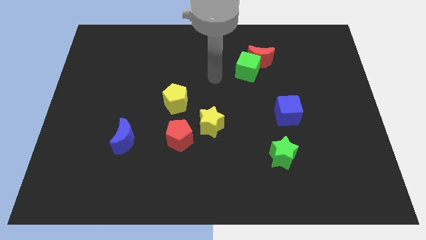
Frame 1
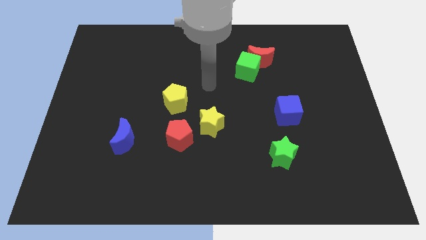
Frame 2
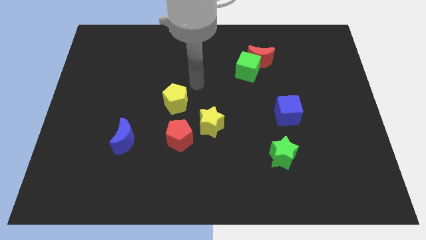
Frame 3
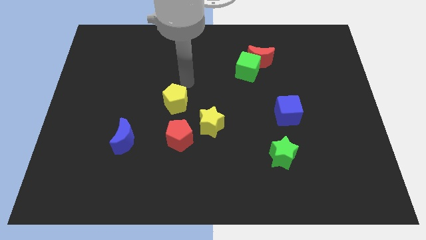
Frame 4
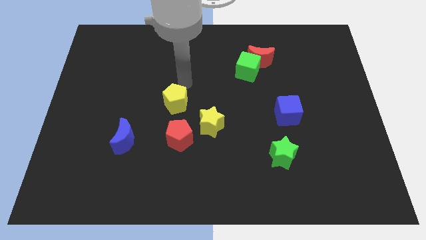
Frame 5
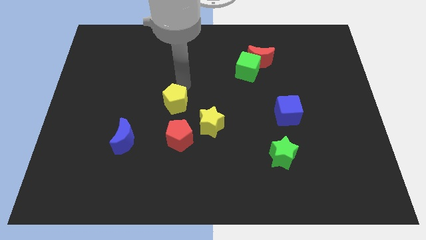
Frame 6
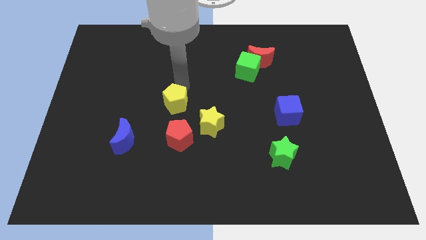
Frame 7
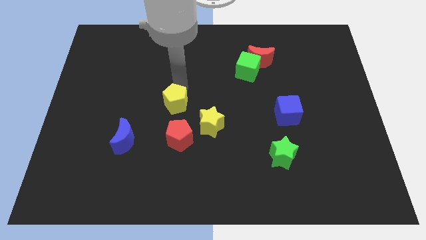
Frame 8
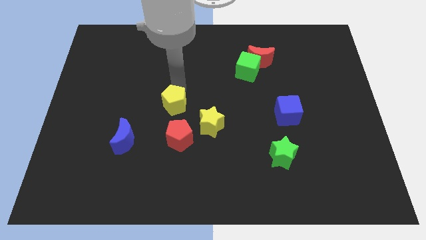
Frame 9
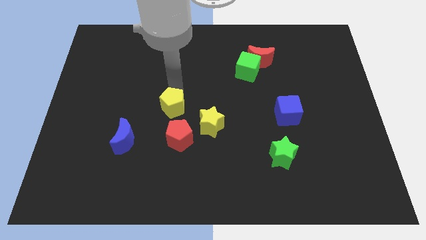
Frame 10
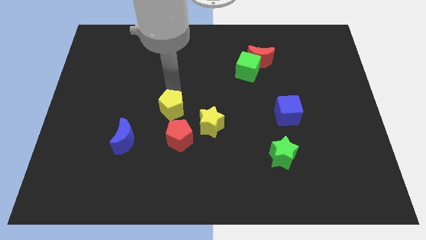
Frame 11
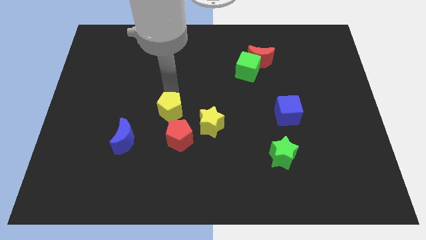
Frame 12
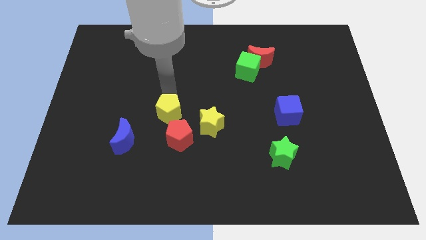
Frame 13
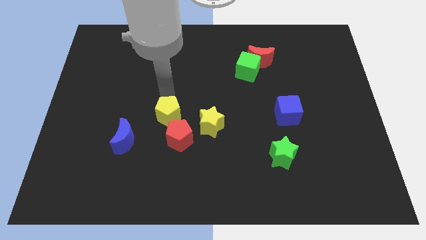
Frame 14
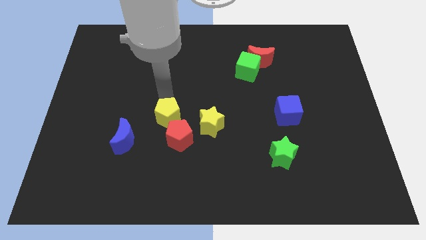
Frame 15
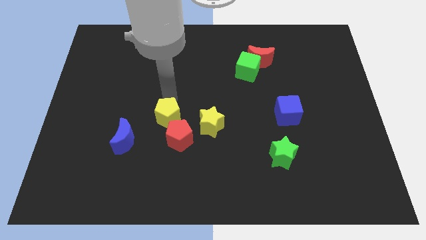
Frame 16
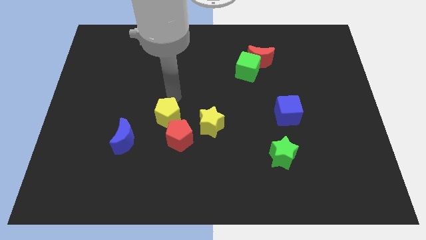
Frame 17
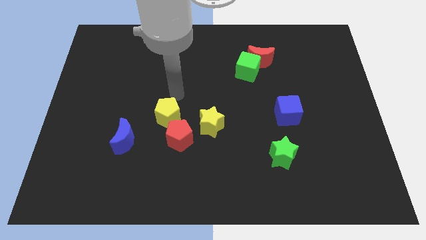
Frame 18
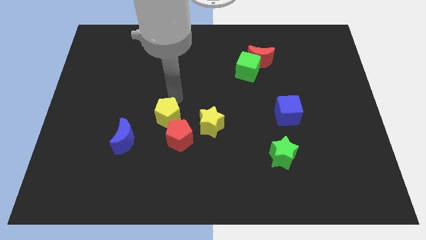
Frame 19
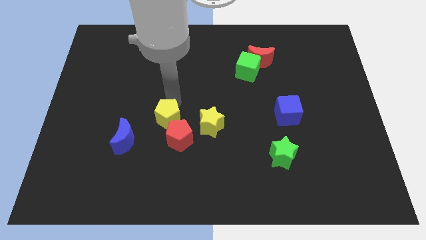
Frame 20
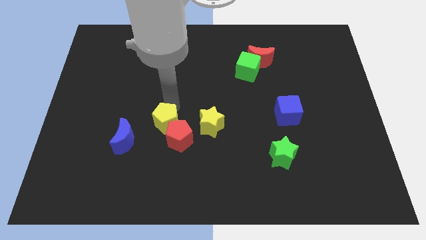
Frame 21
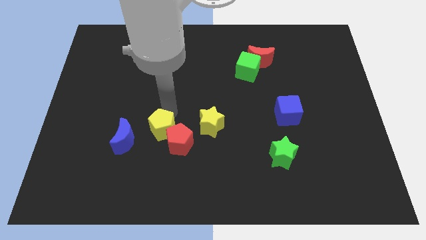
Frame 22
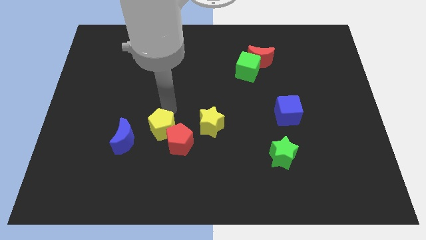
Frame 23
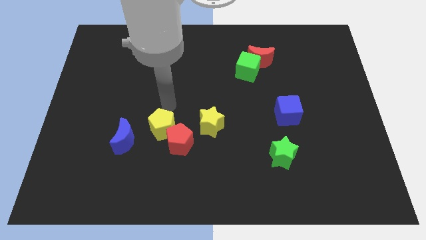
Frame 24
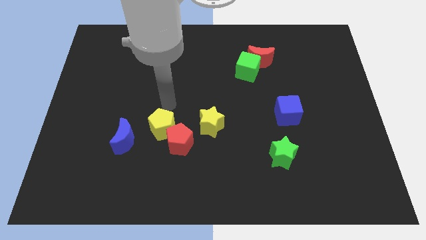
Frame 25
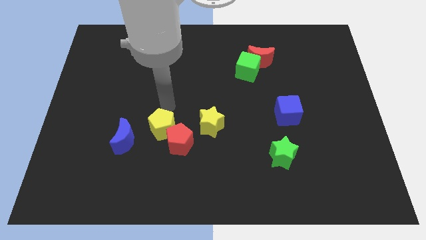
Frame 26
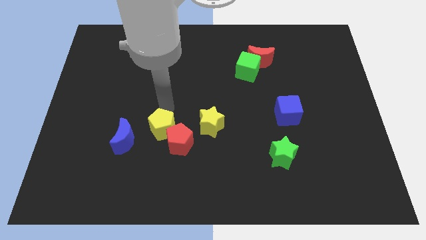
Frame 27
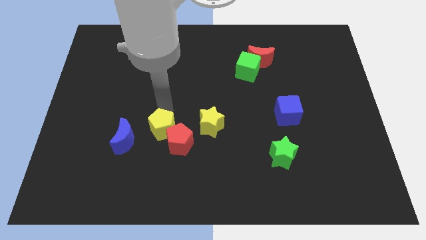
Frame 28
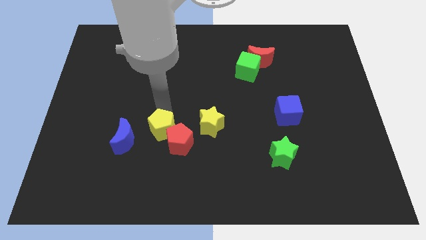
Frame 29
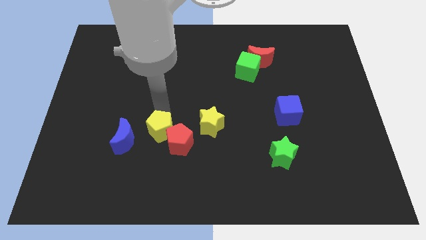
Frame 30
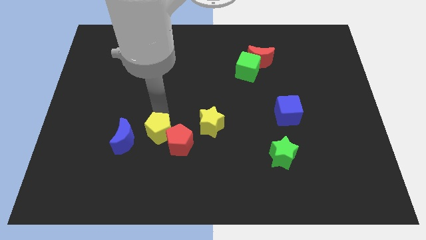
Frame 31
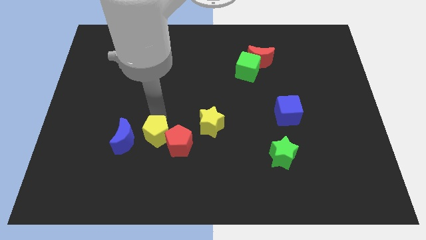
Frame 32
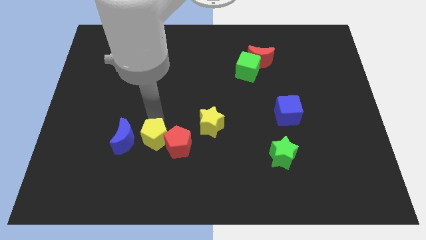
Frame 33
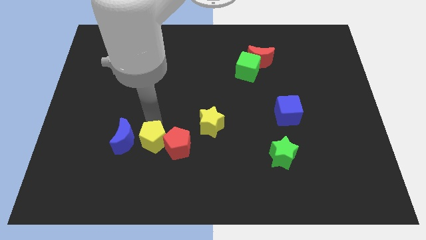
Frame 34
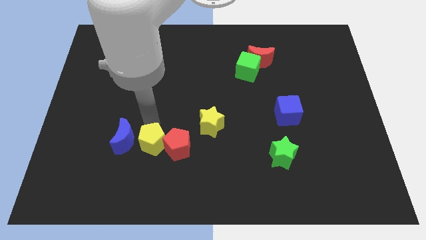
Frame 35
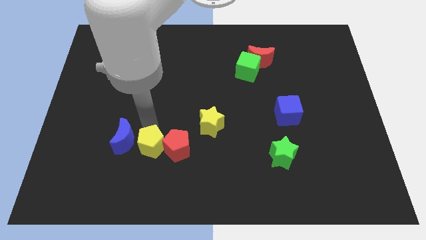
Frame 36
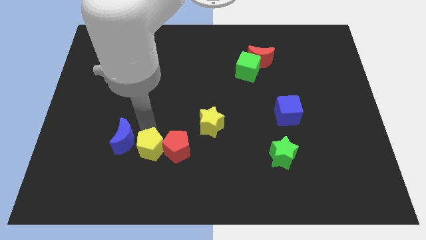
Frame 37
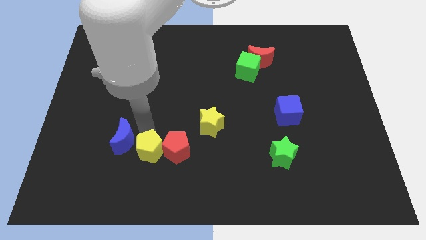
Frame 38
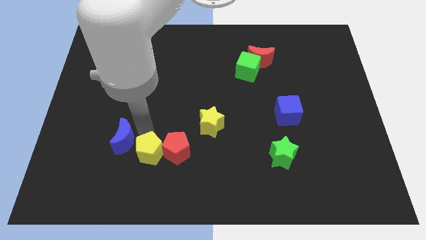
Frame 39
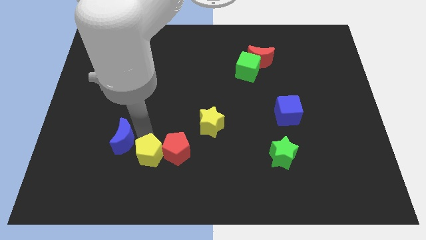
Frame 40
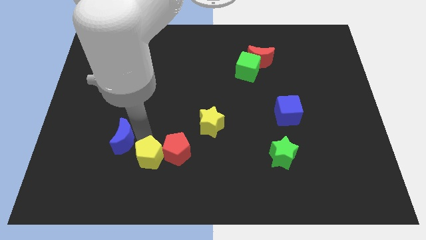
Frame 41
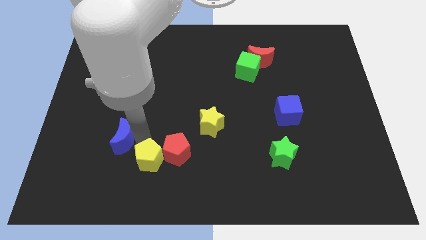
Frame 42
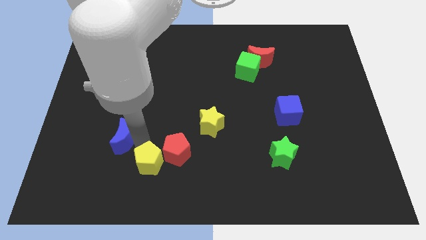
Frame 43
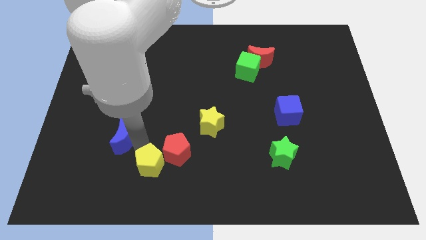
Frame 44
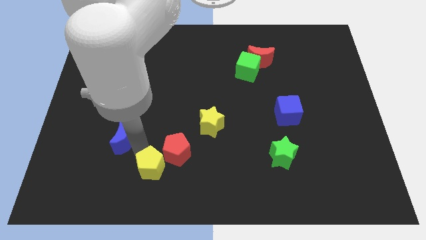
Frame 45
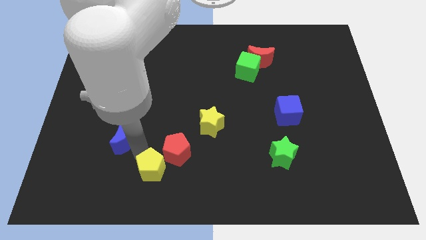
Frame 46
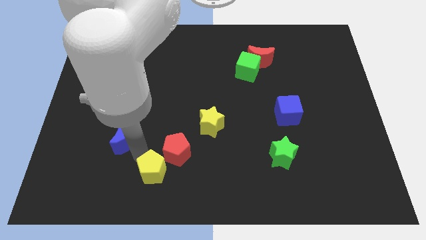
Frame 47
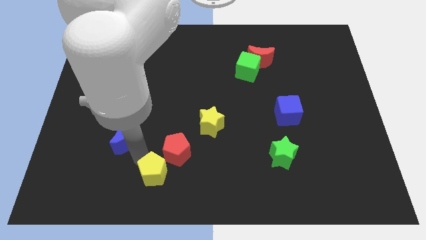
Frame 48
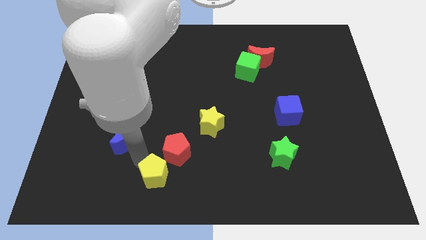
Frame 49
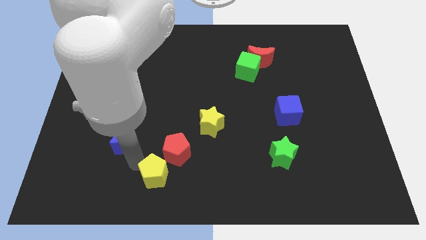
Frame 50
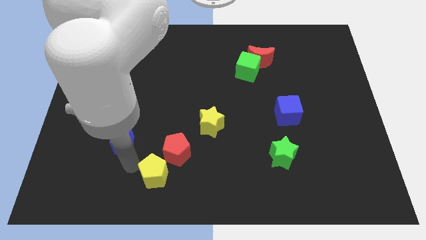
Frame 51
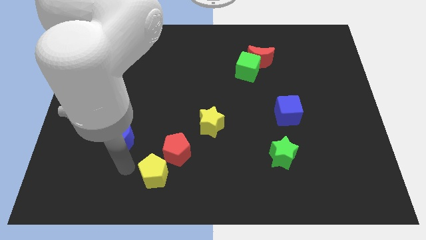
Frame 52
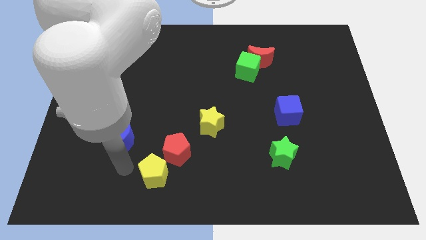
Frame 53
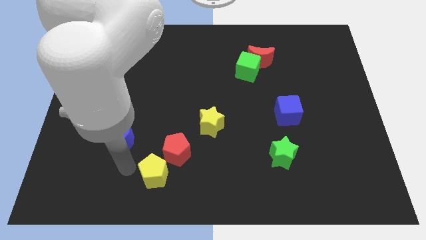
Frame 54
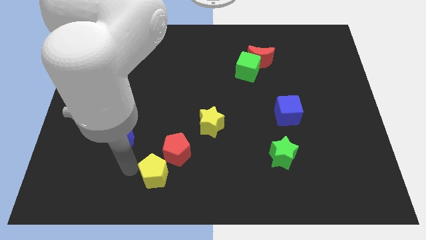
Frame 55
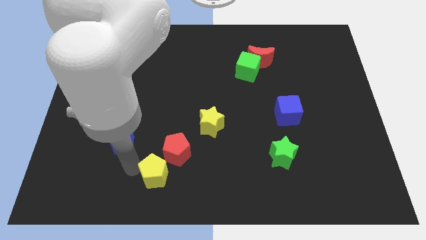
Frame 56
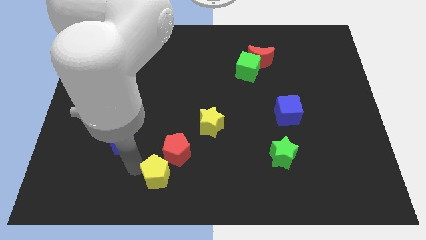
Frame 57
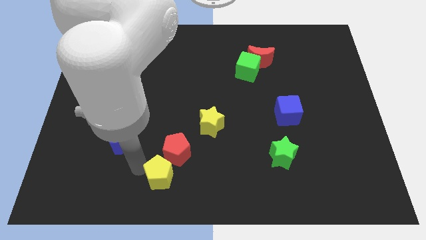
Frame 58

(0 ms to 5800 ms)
slide the yellow pentagon to the bottom

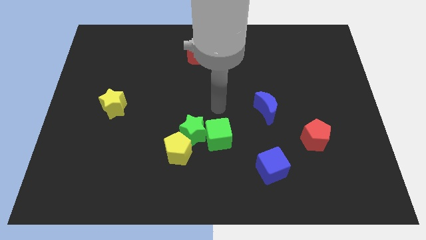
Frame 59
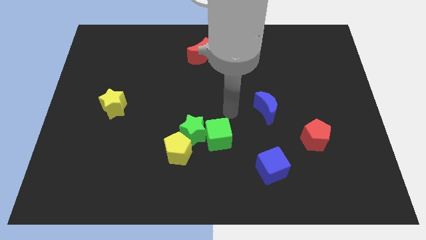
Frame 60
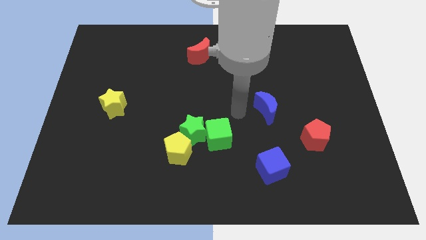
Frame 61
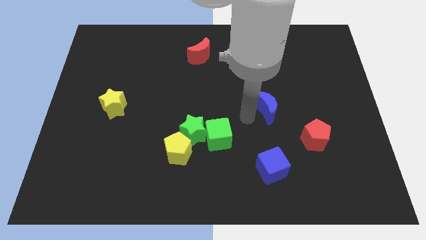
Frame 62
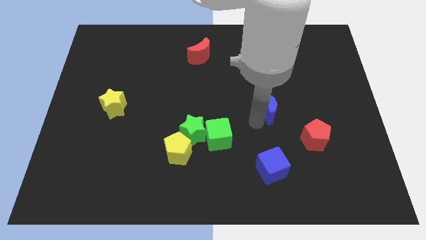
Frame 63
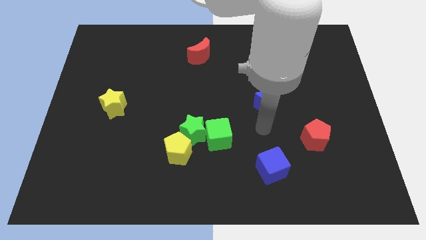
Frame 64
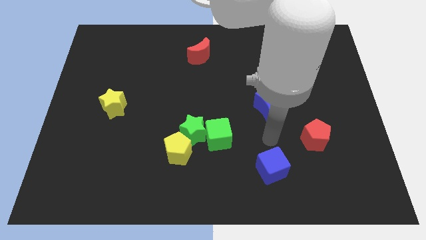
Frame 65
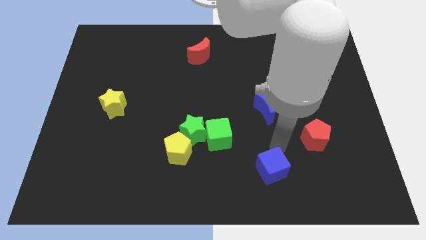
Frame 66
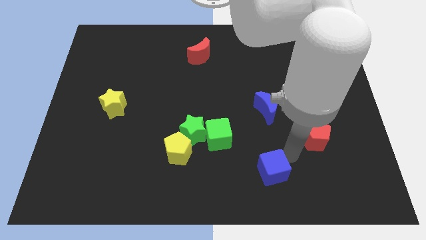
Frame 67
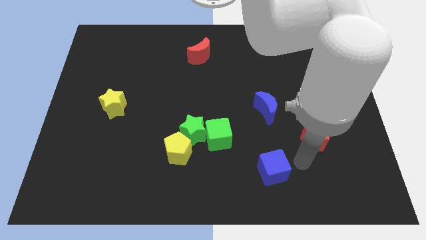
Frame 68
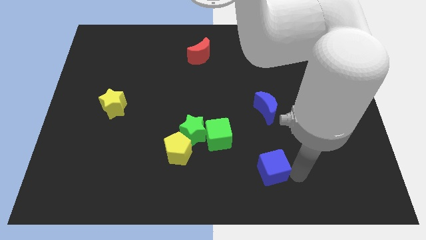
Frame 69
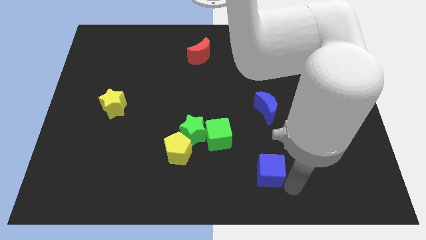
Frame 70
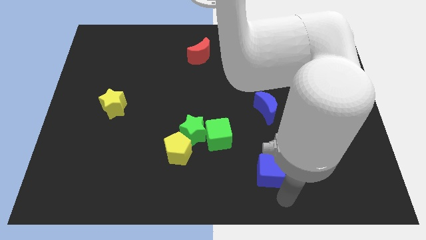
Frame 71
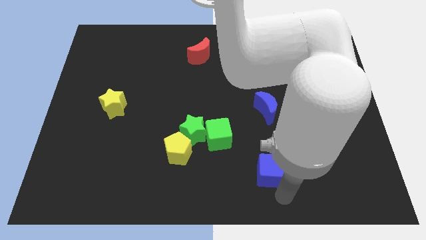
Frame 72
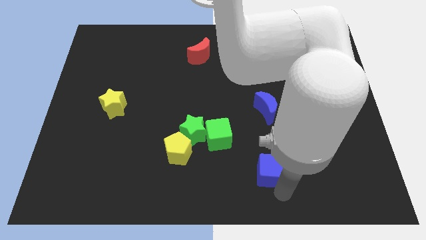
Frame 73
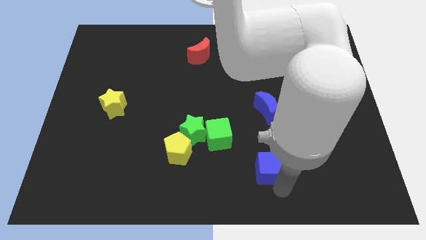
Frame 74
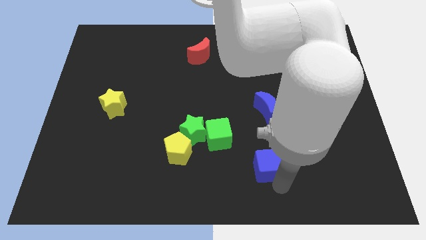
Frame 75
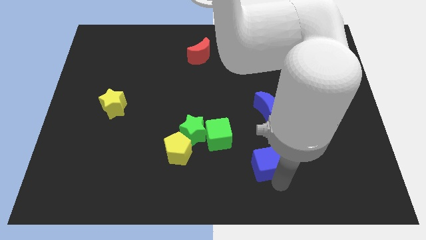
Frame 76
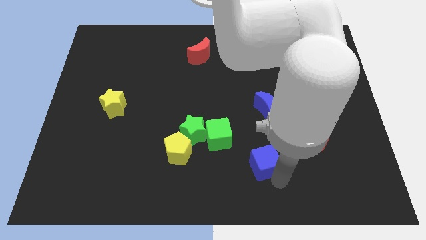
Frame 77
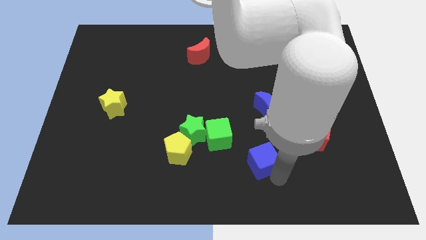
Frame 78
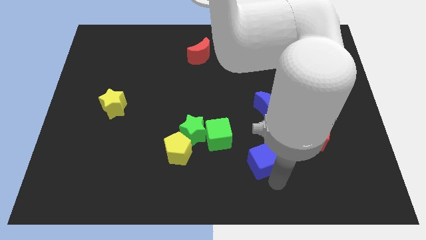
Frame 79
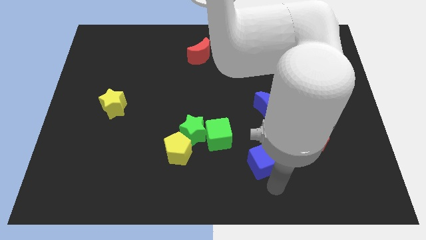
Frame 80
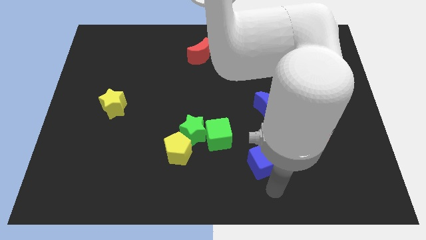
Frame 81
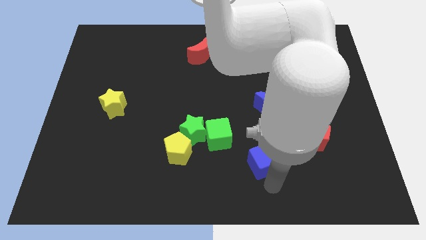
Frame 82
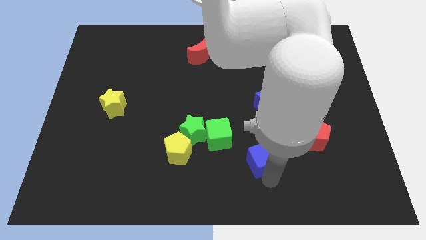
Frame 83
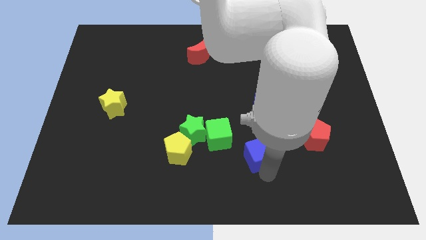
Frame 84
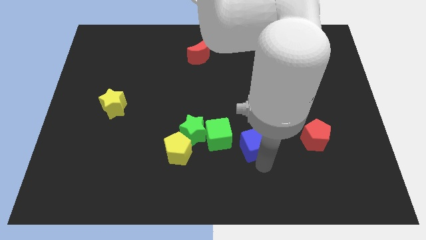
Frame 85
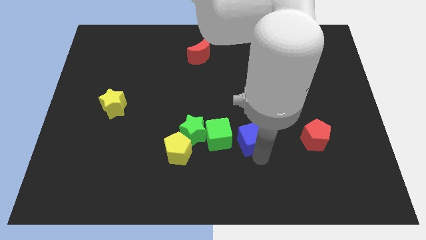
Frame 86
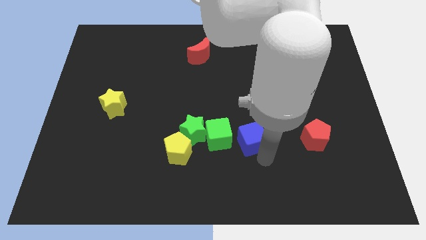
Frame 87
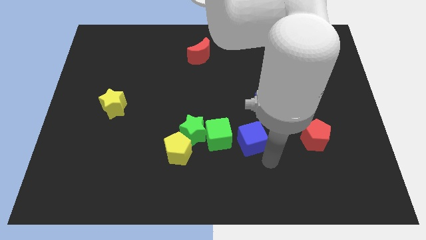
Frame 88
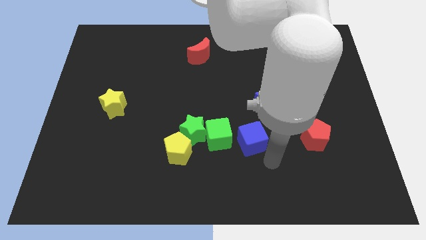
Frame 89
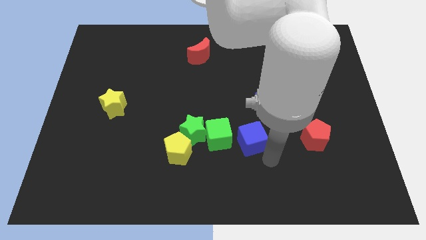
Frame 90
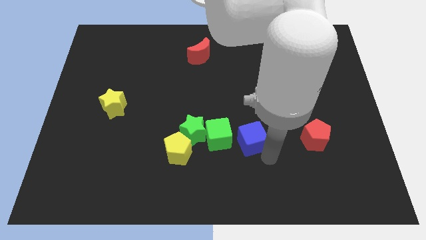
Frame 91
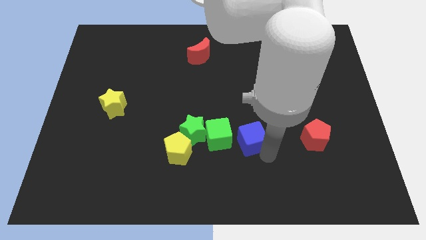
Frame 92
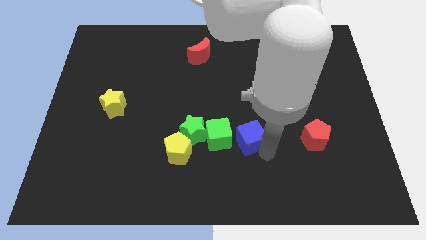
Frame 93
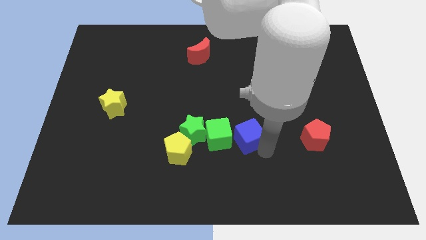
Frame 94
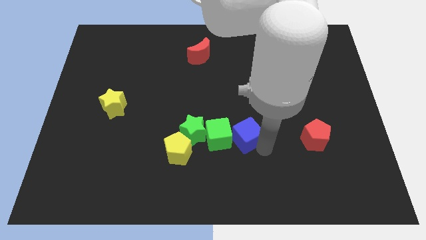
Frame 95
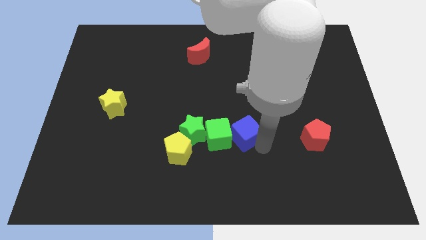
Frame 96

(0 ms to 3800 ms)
push the blue cube to the center of the board
